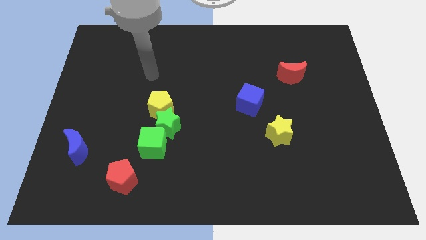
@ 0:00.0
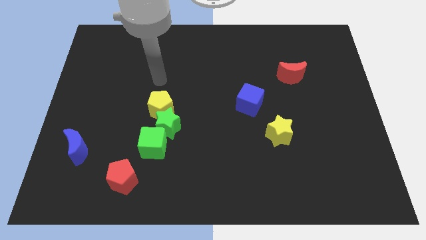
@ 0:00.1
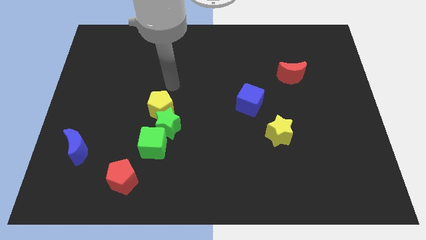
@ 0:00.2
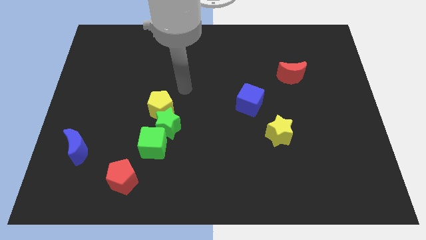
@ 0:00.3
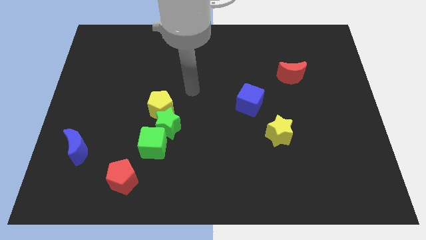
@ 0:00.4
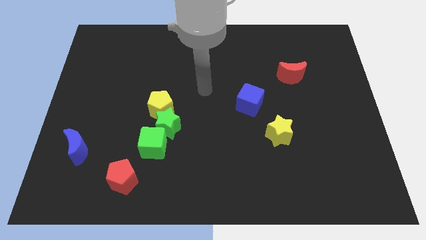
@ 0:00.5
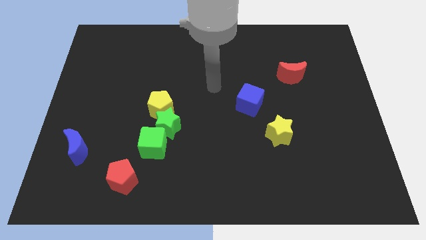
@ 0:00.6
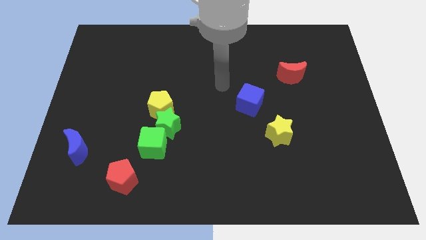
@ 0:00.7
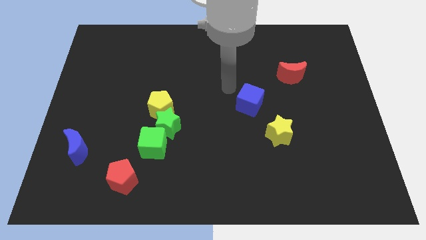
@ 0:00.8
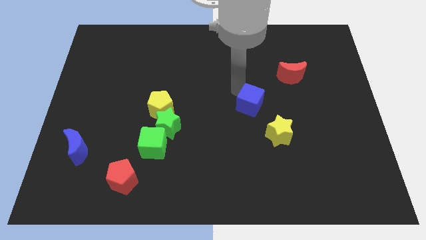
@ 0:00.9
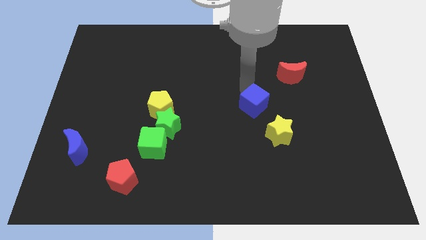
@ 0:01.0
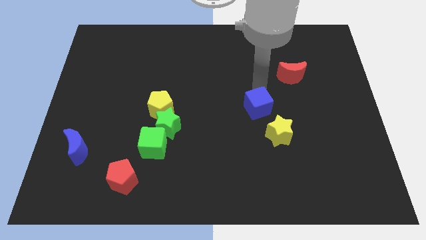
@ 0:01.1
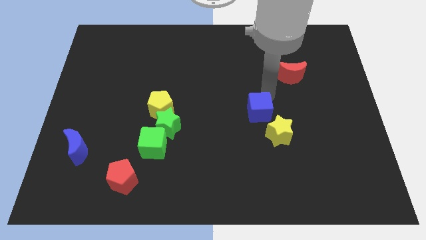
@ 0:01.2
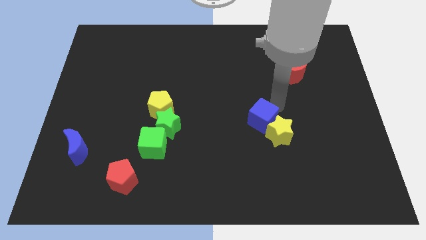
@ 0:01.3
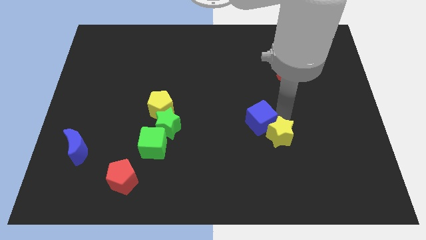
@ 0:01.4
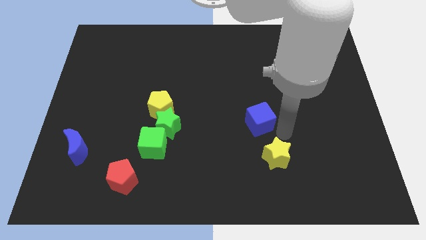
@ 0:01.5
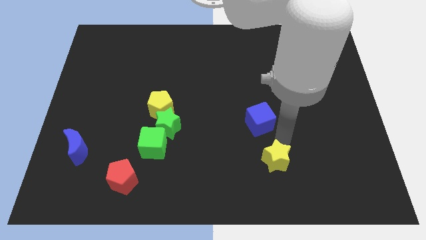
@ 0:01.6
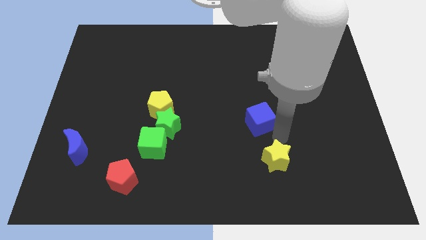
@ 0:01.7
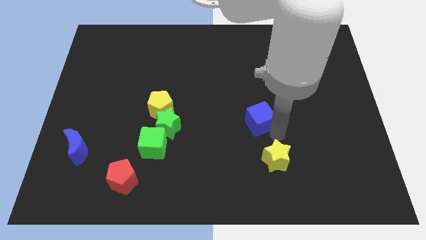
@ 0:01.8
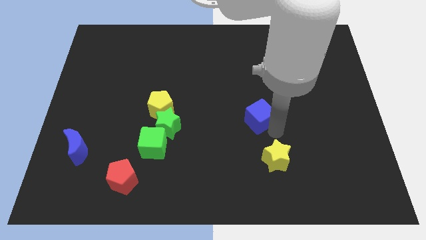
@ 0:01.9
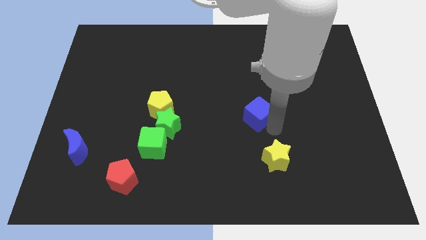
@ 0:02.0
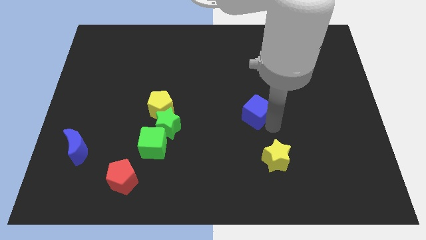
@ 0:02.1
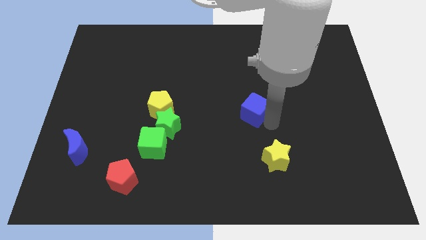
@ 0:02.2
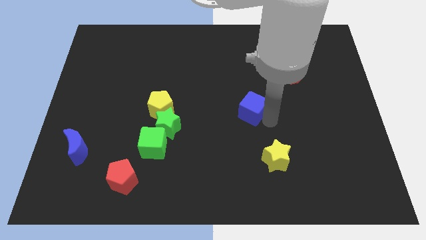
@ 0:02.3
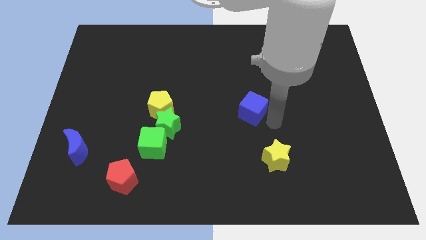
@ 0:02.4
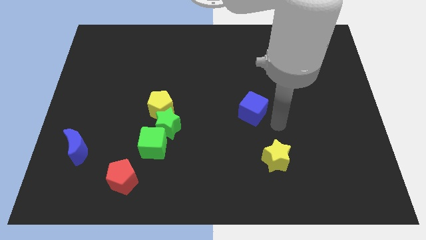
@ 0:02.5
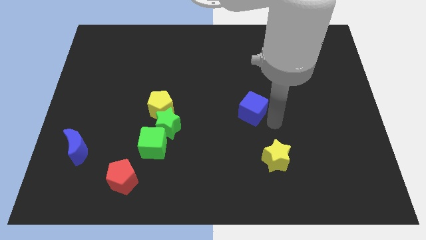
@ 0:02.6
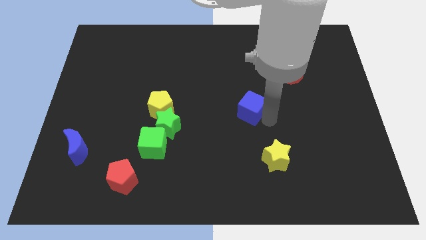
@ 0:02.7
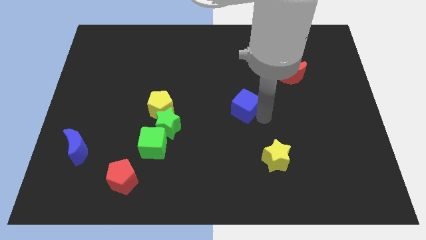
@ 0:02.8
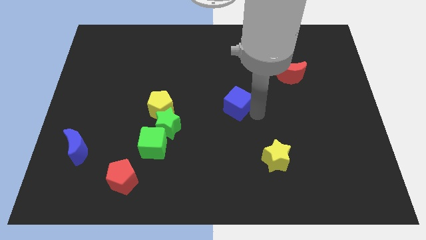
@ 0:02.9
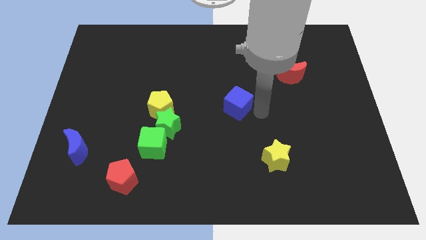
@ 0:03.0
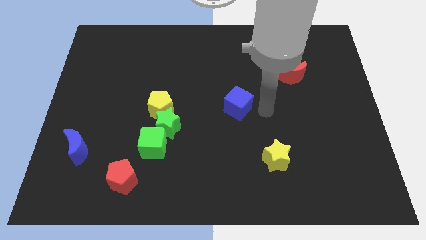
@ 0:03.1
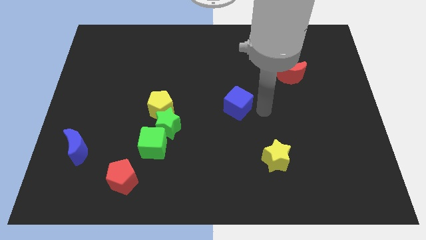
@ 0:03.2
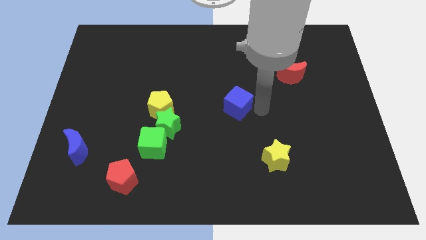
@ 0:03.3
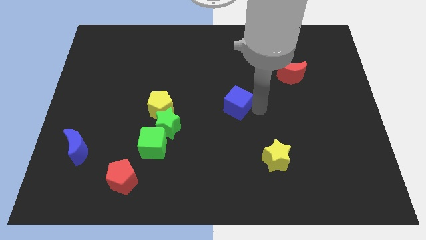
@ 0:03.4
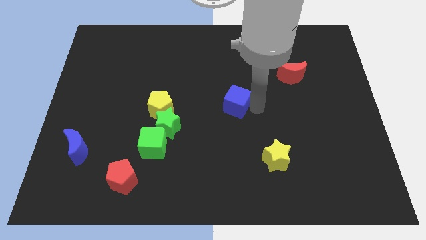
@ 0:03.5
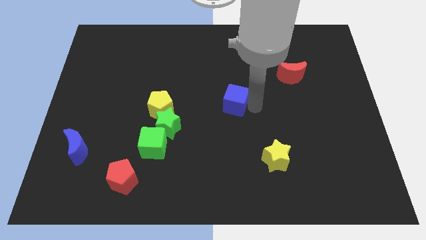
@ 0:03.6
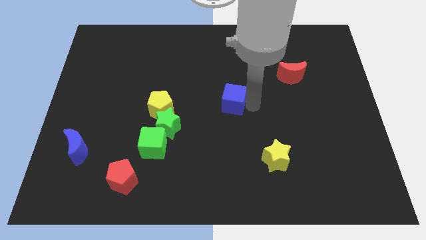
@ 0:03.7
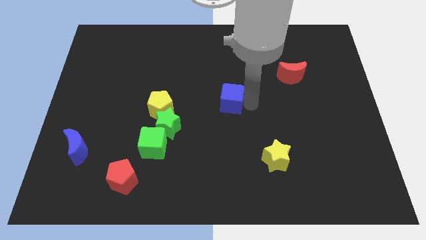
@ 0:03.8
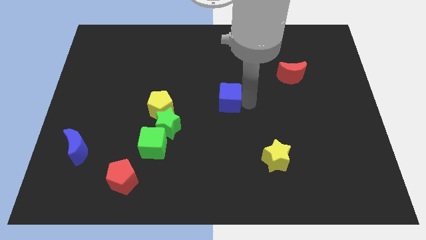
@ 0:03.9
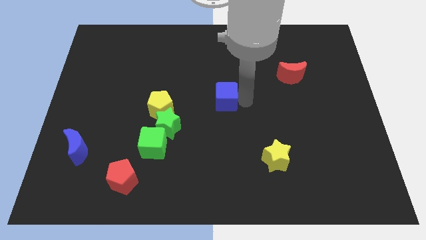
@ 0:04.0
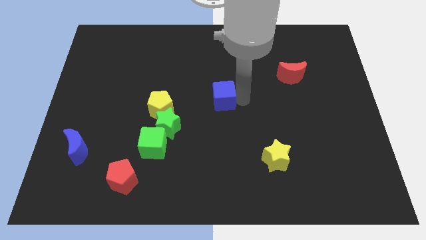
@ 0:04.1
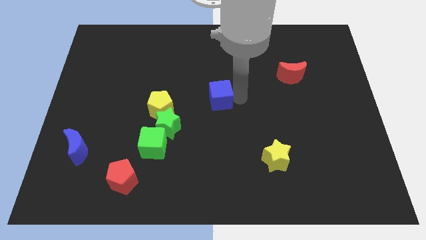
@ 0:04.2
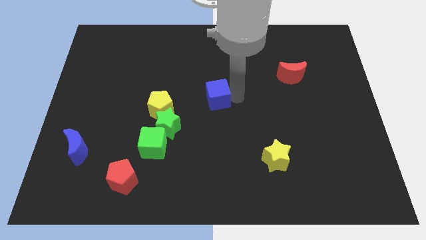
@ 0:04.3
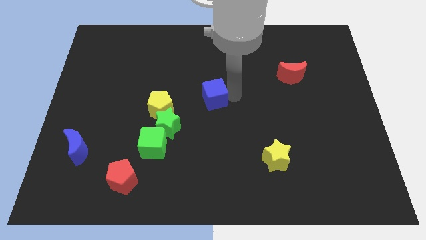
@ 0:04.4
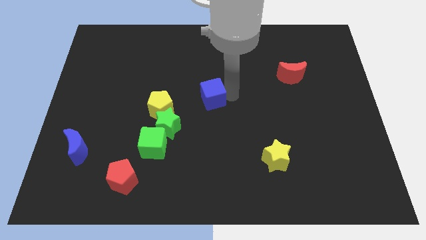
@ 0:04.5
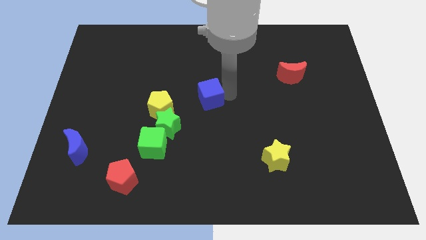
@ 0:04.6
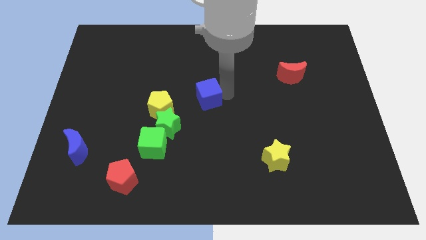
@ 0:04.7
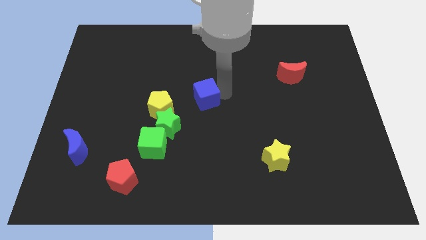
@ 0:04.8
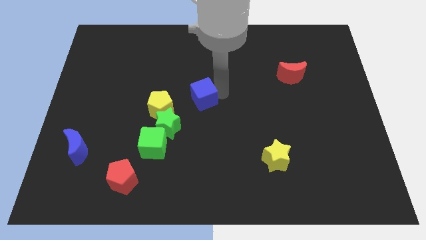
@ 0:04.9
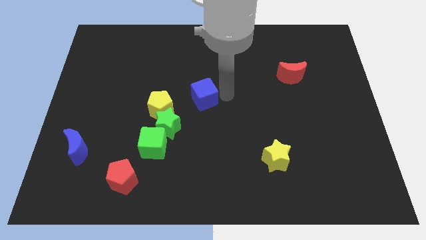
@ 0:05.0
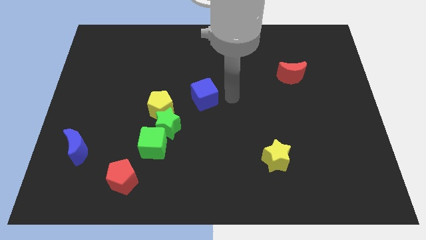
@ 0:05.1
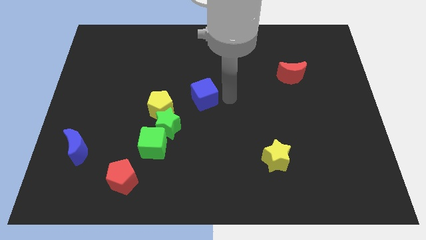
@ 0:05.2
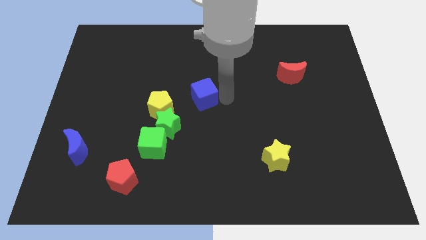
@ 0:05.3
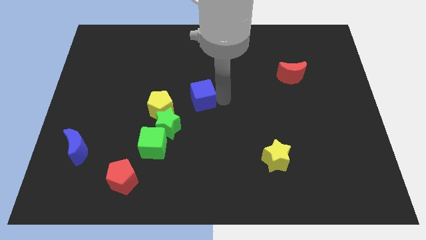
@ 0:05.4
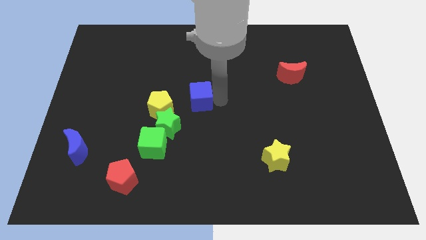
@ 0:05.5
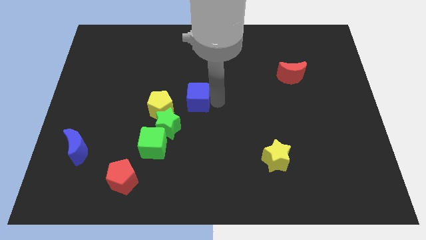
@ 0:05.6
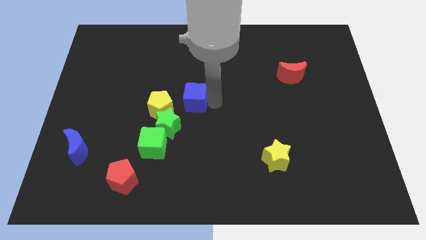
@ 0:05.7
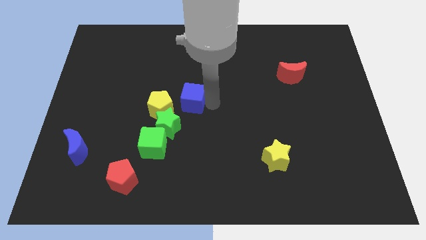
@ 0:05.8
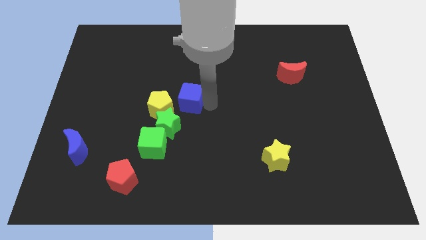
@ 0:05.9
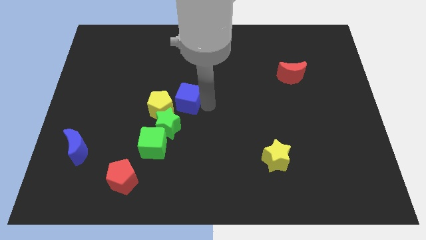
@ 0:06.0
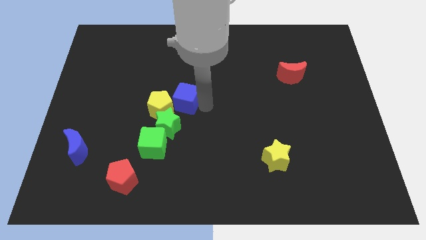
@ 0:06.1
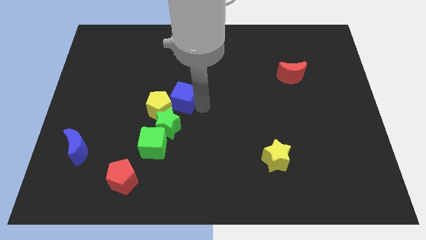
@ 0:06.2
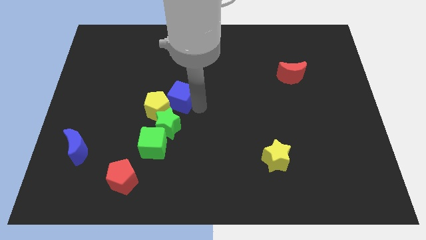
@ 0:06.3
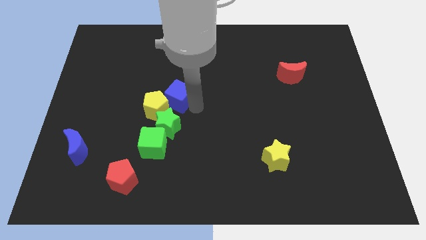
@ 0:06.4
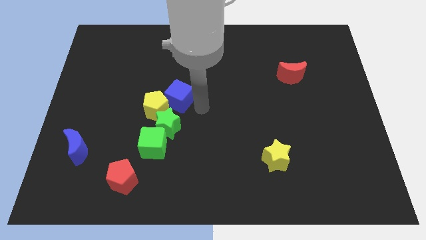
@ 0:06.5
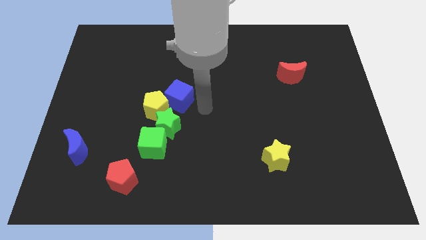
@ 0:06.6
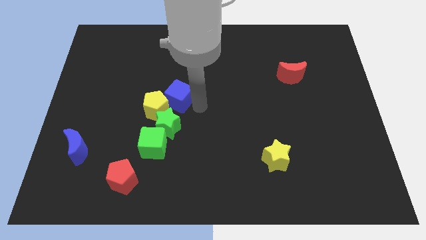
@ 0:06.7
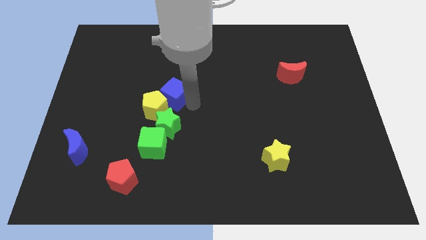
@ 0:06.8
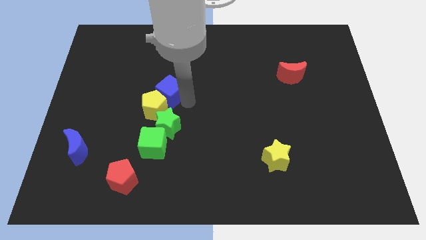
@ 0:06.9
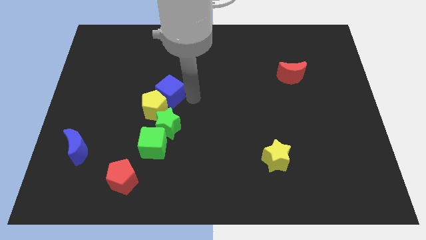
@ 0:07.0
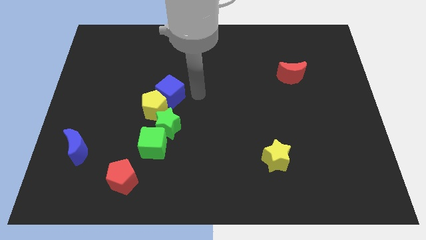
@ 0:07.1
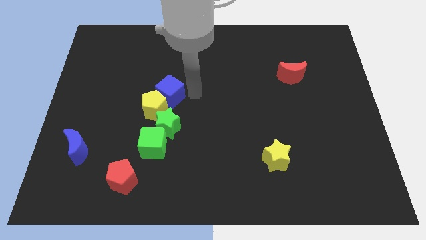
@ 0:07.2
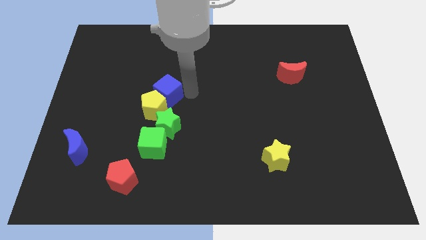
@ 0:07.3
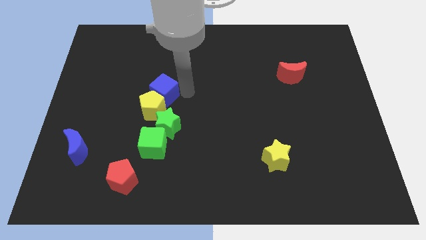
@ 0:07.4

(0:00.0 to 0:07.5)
move the blue cube left

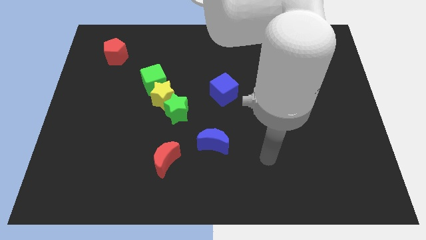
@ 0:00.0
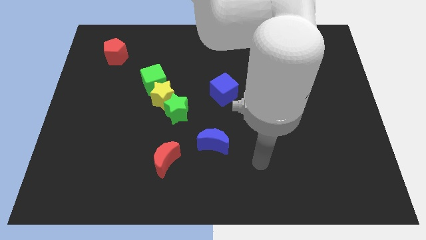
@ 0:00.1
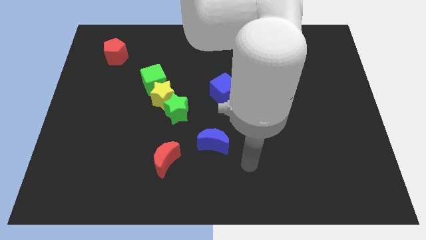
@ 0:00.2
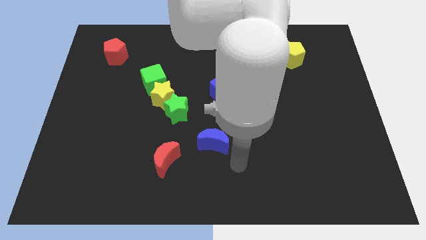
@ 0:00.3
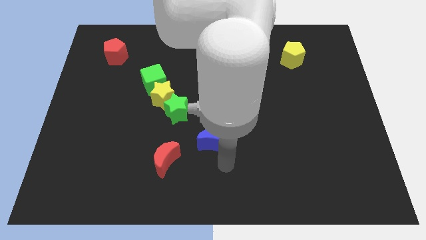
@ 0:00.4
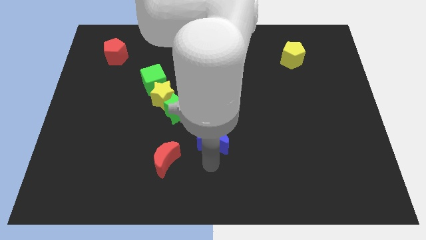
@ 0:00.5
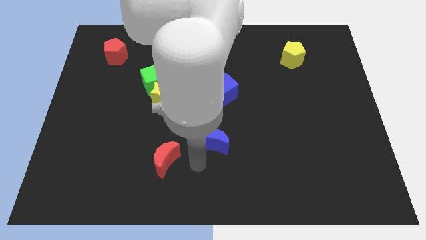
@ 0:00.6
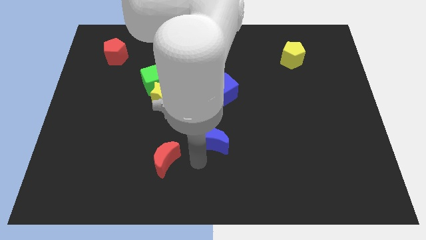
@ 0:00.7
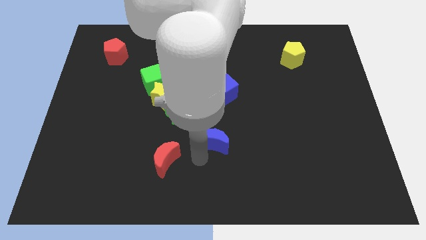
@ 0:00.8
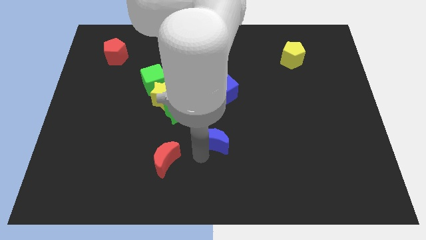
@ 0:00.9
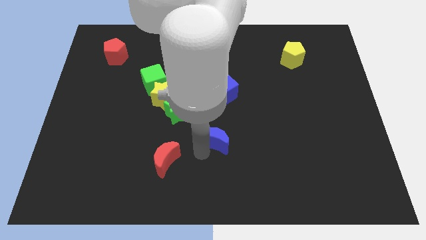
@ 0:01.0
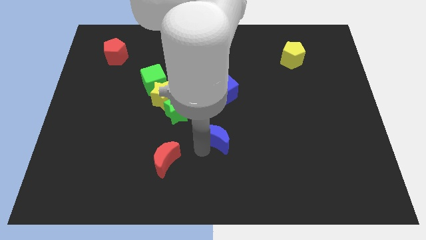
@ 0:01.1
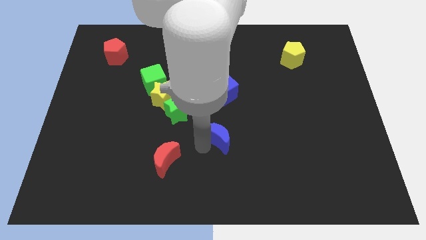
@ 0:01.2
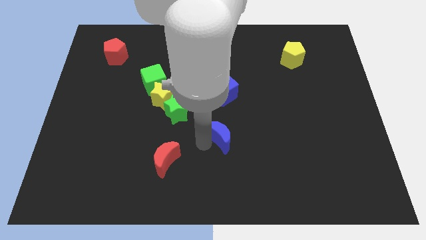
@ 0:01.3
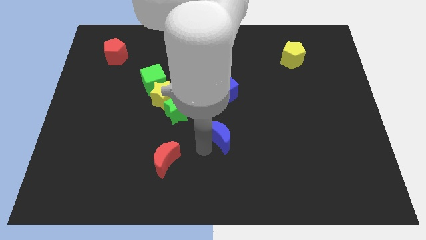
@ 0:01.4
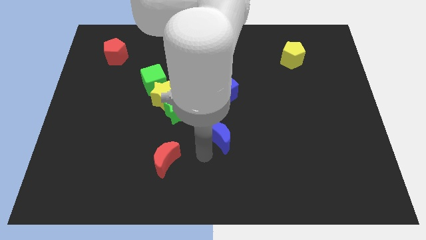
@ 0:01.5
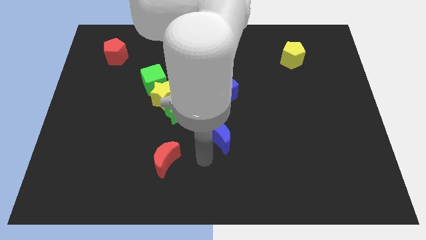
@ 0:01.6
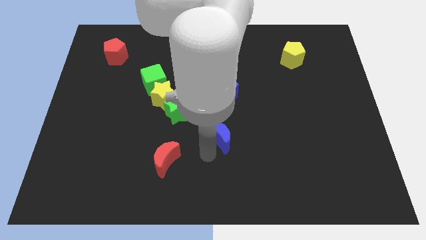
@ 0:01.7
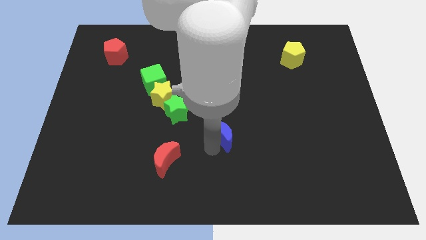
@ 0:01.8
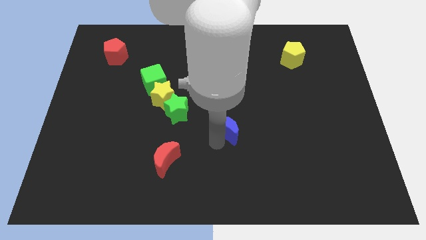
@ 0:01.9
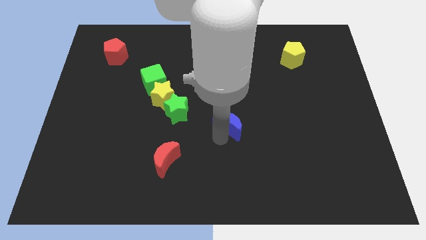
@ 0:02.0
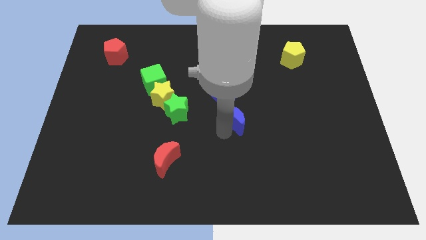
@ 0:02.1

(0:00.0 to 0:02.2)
slightly slide the blue moon up and to the right diagonally
